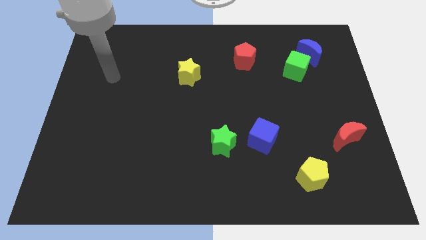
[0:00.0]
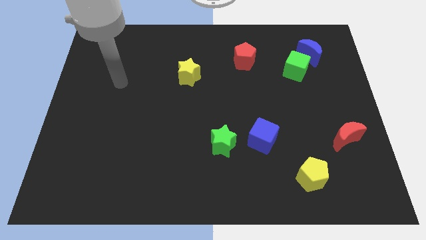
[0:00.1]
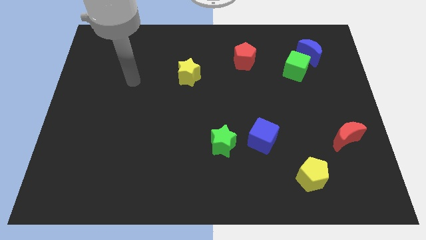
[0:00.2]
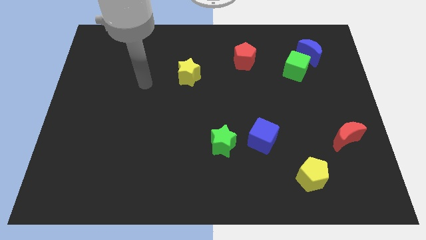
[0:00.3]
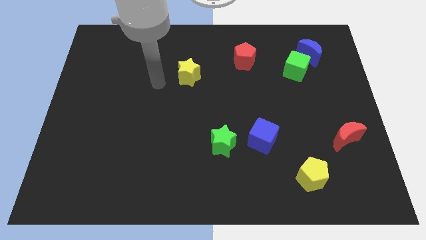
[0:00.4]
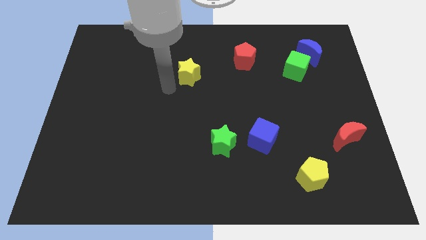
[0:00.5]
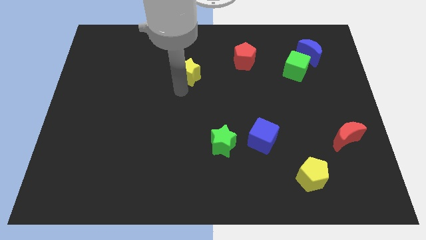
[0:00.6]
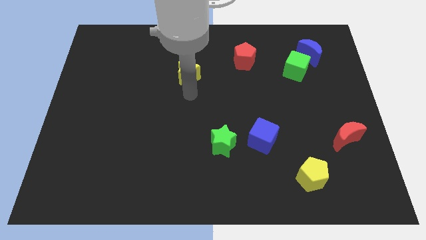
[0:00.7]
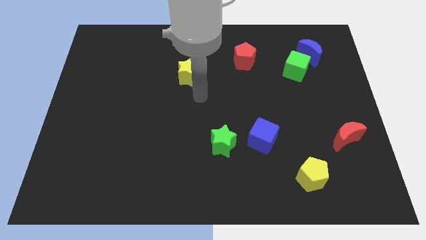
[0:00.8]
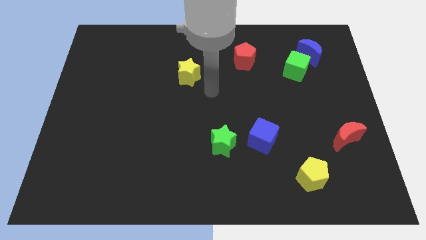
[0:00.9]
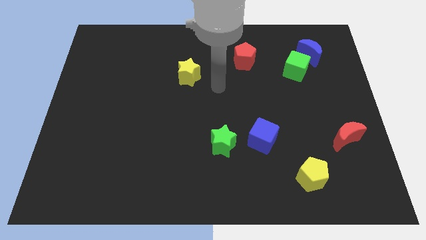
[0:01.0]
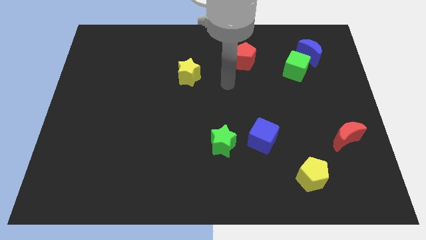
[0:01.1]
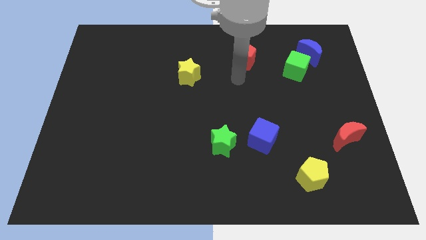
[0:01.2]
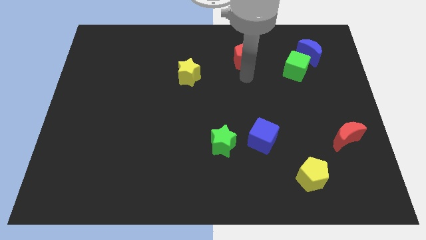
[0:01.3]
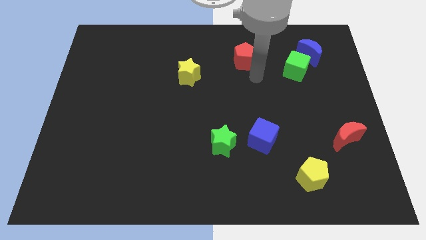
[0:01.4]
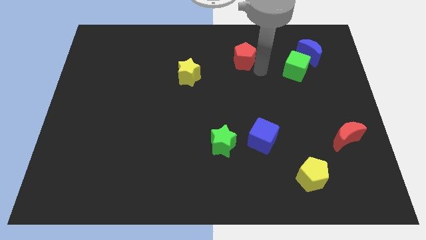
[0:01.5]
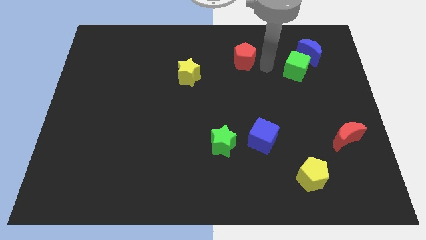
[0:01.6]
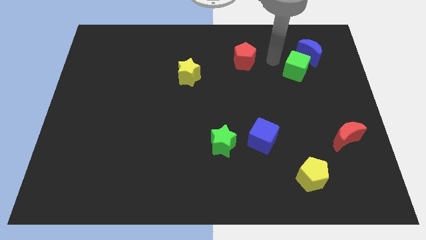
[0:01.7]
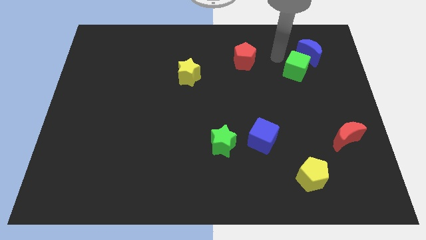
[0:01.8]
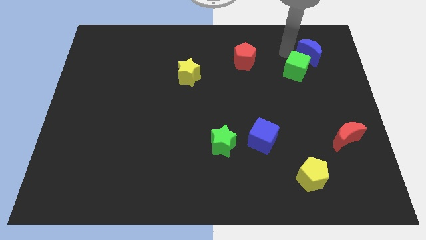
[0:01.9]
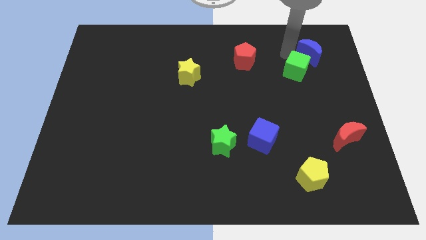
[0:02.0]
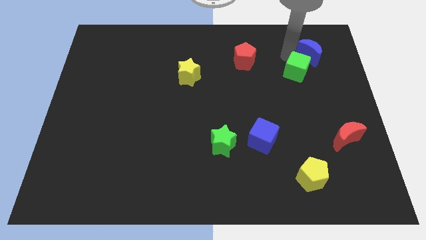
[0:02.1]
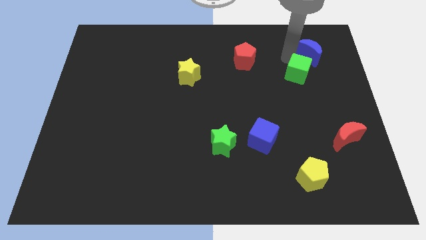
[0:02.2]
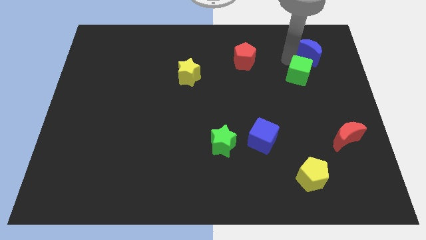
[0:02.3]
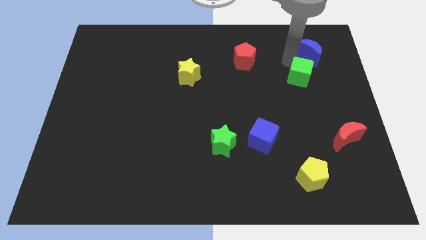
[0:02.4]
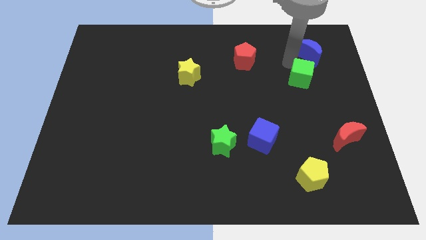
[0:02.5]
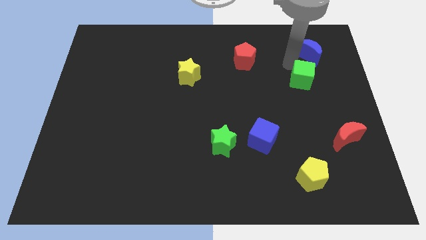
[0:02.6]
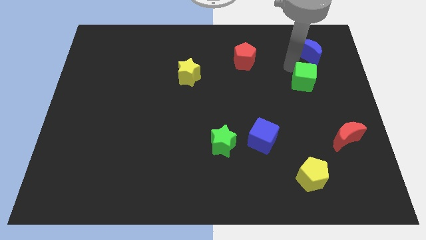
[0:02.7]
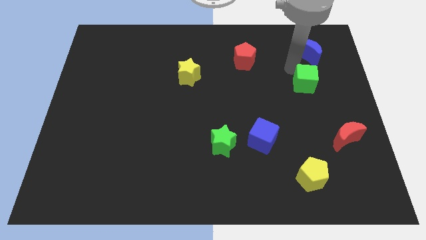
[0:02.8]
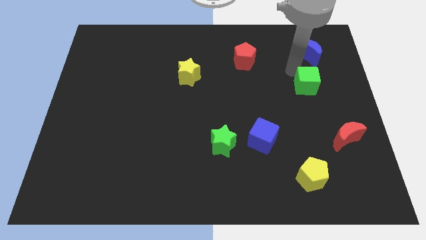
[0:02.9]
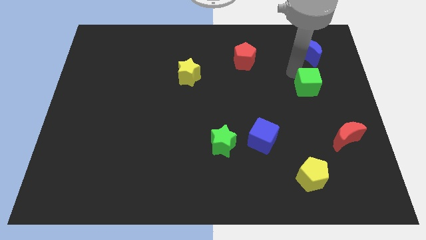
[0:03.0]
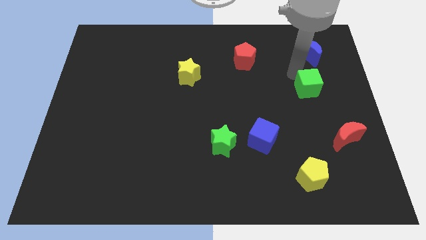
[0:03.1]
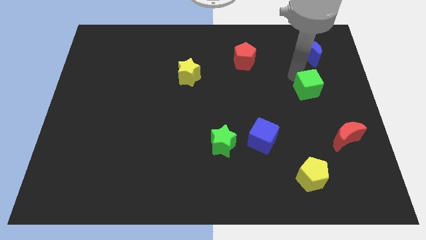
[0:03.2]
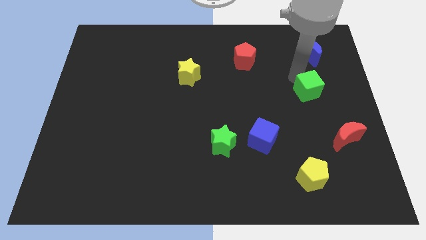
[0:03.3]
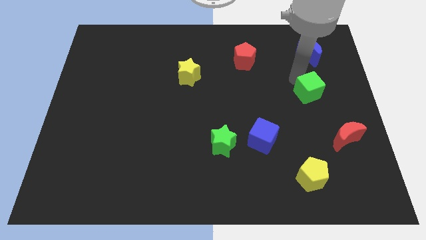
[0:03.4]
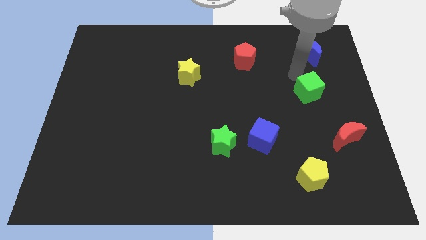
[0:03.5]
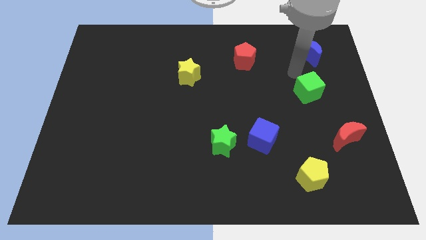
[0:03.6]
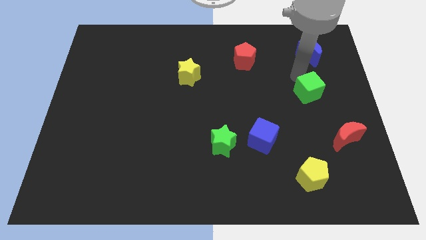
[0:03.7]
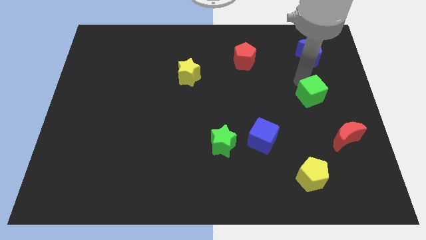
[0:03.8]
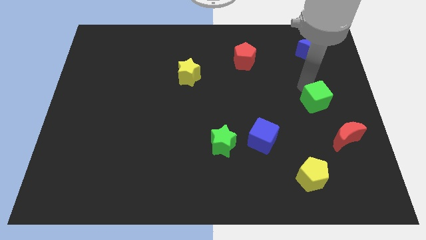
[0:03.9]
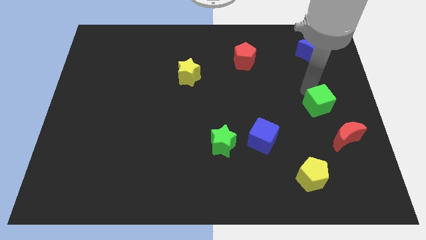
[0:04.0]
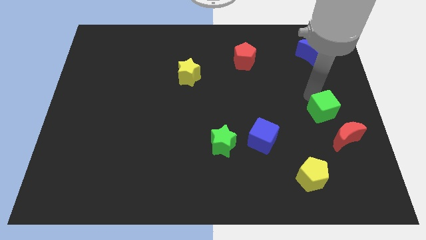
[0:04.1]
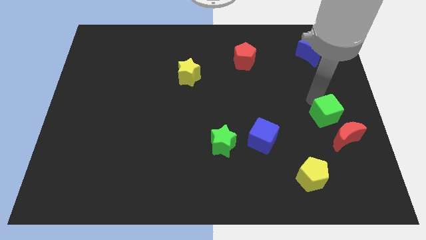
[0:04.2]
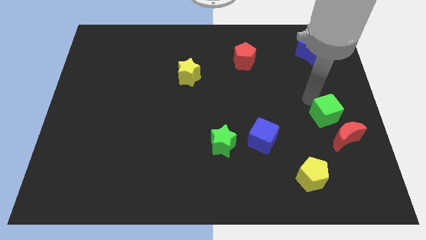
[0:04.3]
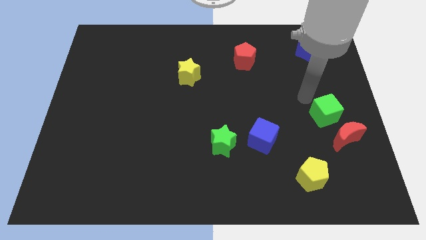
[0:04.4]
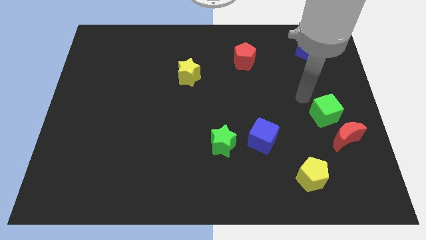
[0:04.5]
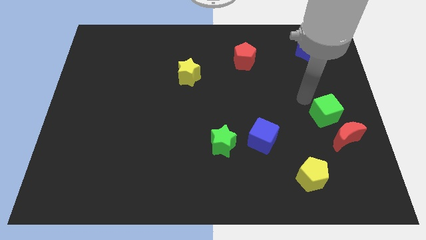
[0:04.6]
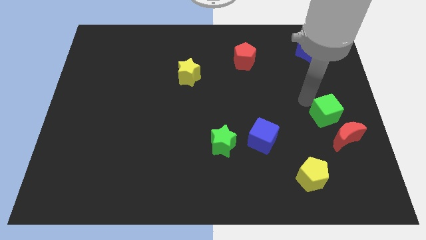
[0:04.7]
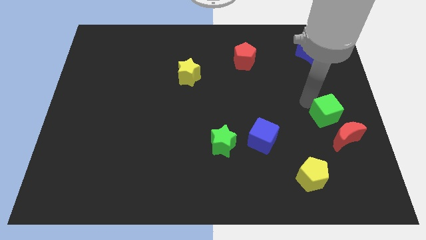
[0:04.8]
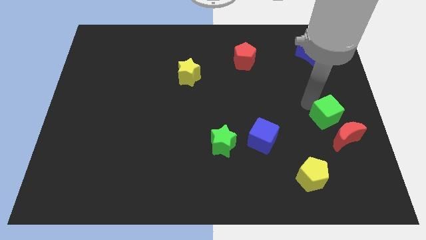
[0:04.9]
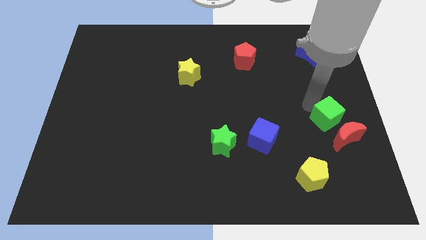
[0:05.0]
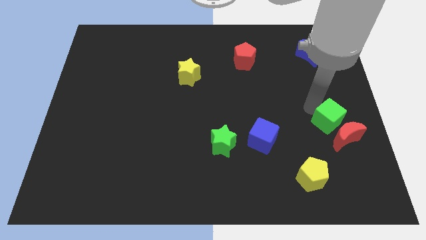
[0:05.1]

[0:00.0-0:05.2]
move the green cube to the red moon

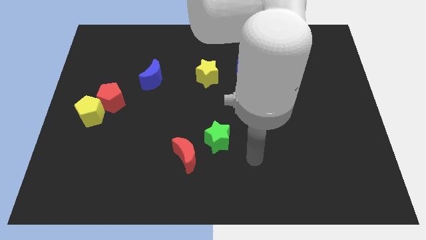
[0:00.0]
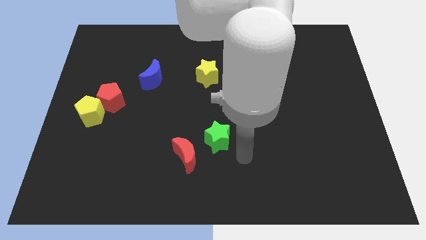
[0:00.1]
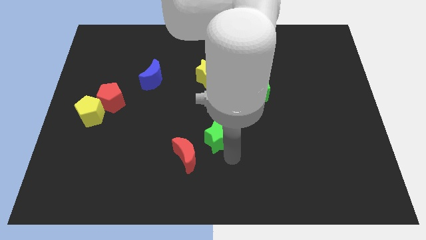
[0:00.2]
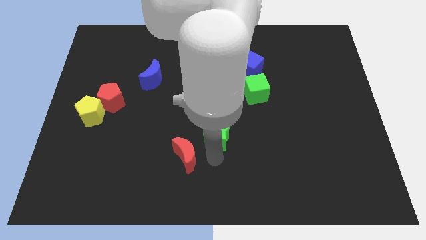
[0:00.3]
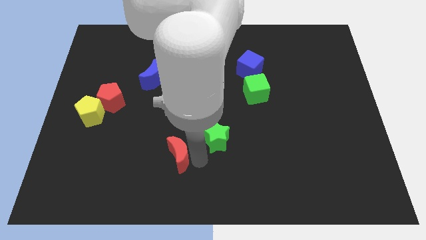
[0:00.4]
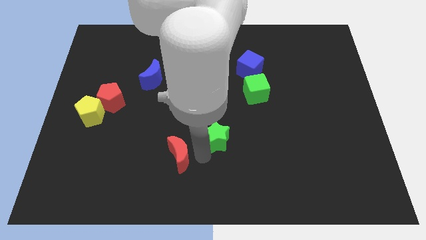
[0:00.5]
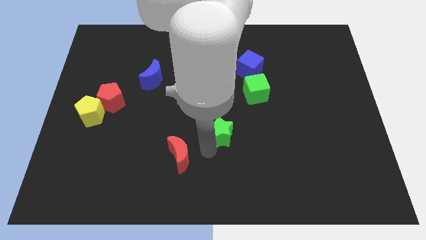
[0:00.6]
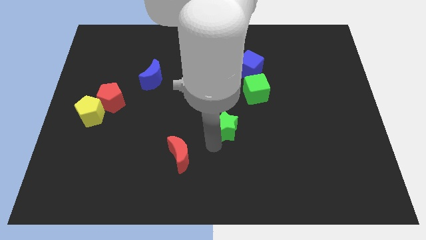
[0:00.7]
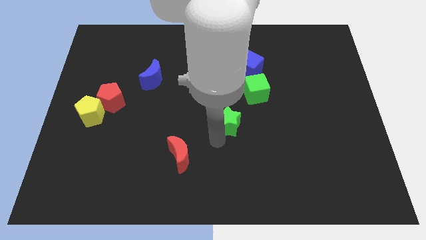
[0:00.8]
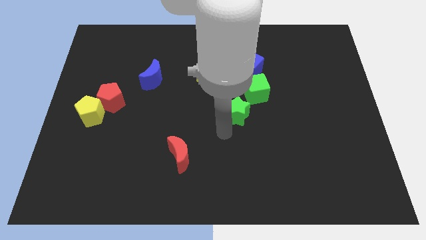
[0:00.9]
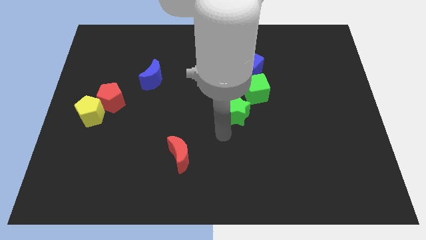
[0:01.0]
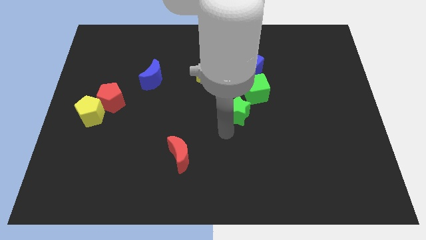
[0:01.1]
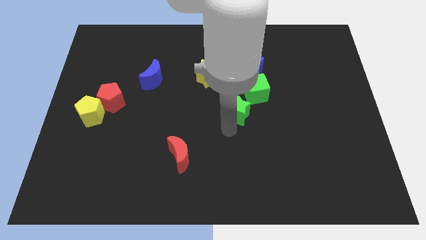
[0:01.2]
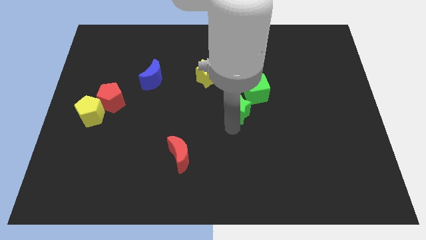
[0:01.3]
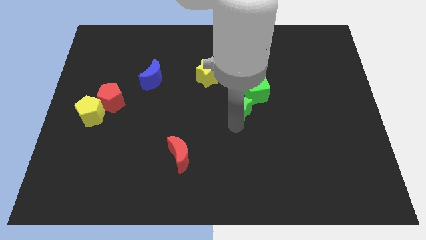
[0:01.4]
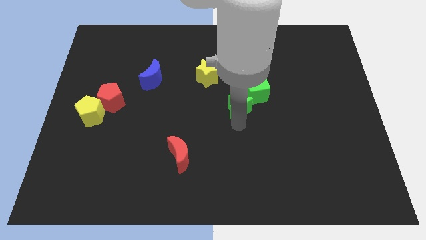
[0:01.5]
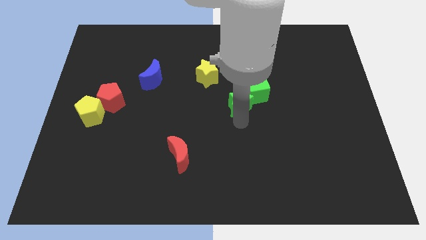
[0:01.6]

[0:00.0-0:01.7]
slide the green star close to the green cube
